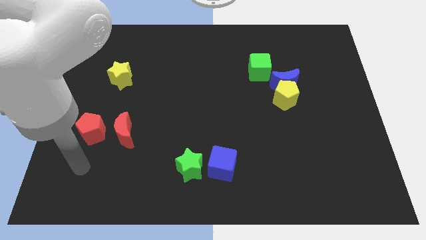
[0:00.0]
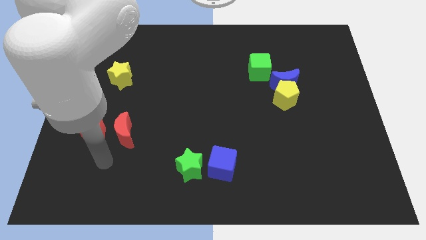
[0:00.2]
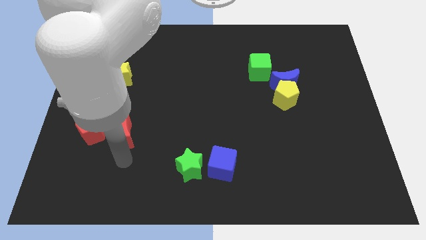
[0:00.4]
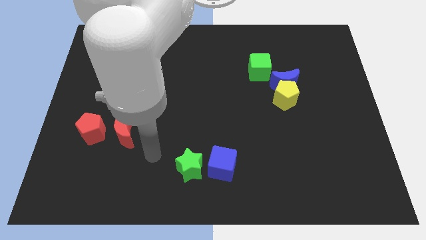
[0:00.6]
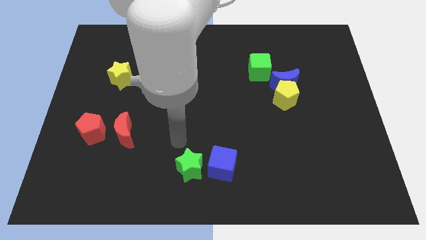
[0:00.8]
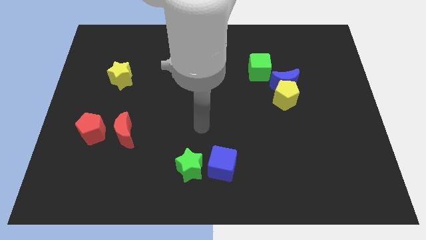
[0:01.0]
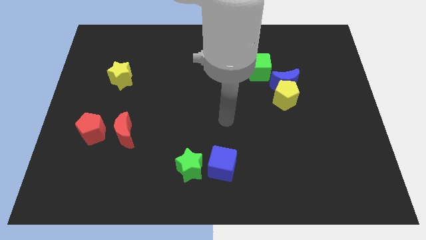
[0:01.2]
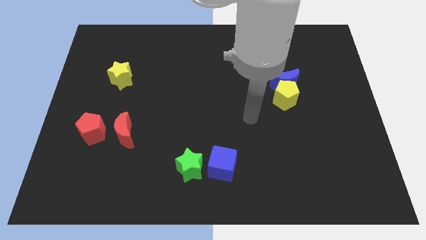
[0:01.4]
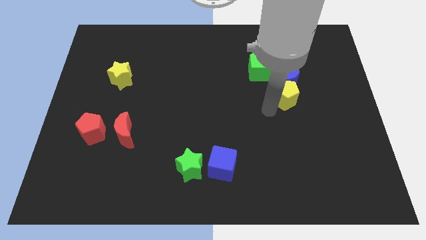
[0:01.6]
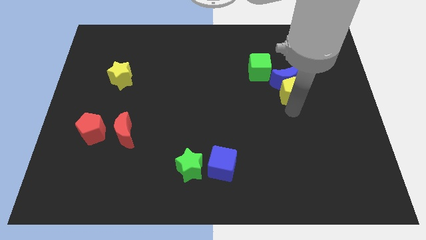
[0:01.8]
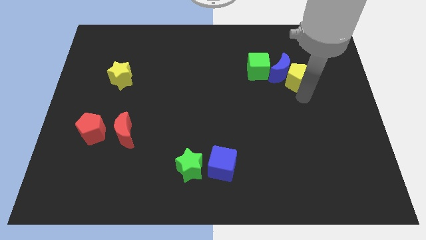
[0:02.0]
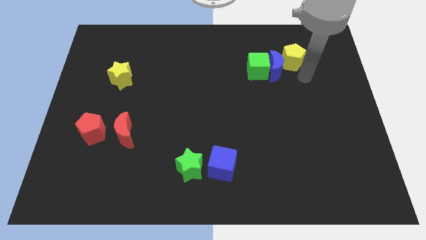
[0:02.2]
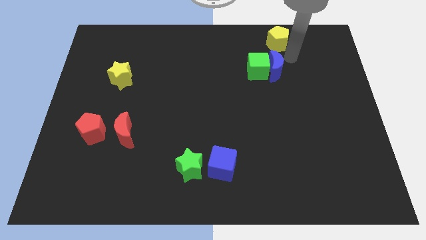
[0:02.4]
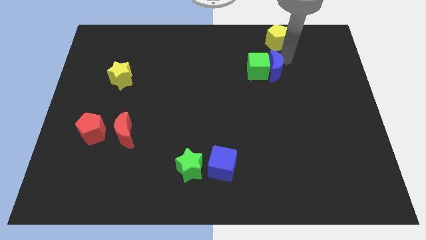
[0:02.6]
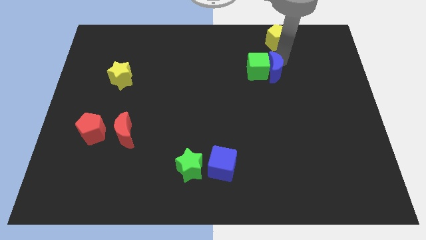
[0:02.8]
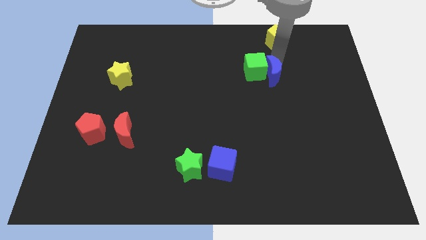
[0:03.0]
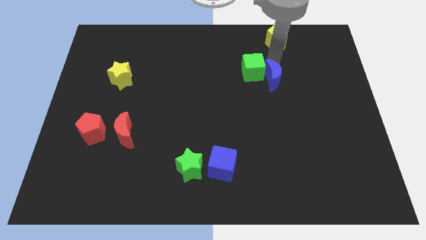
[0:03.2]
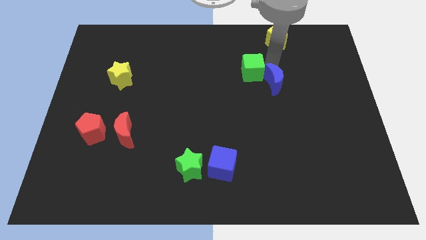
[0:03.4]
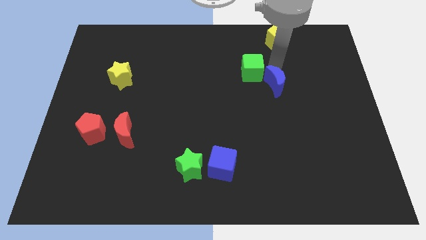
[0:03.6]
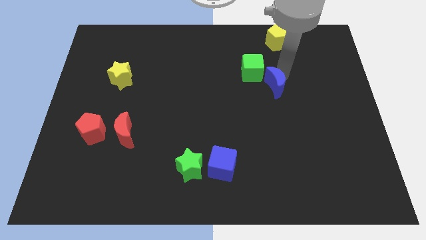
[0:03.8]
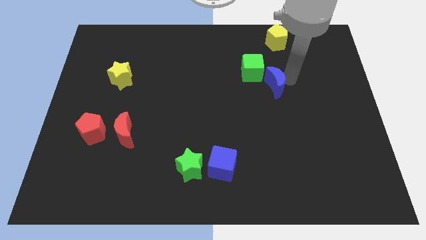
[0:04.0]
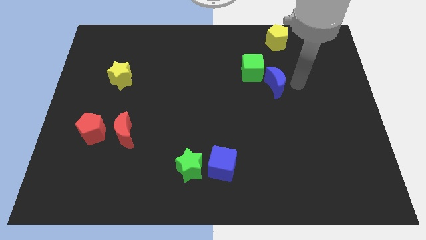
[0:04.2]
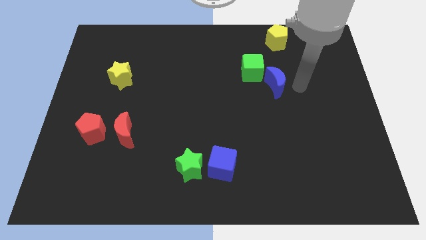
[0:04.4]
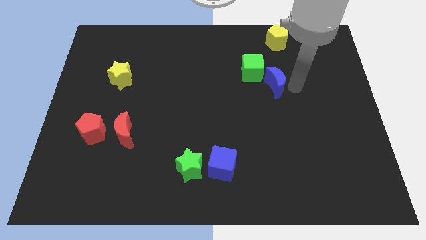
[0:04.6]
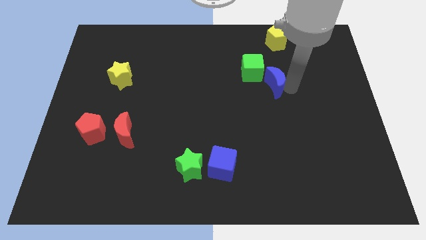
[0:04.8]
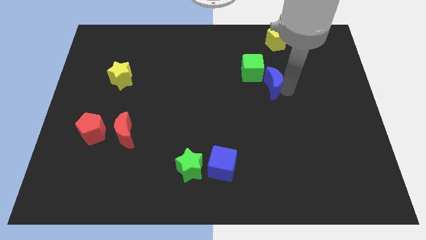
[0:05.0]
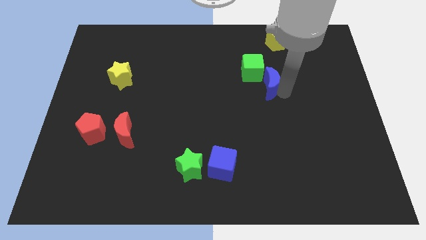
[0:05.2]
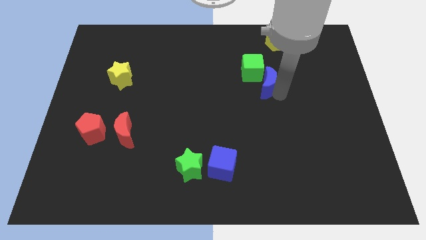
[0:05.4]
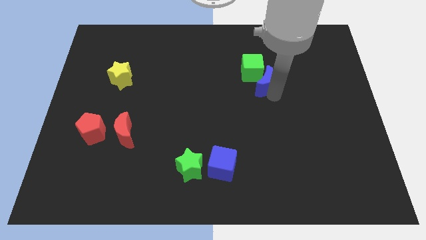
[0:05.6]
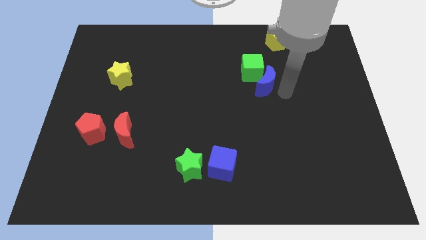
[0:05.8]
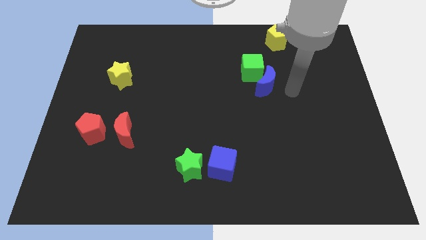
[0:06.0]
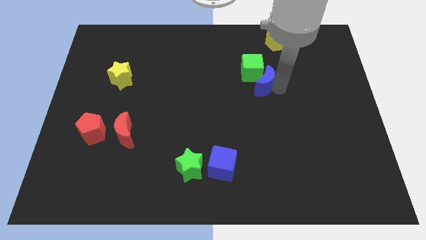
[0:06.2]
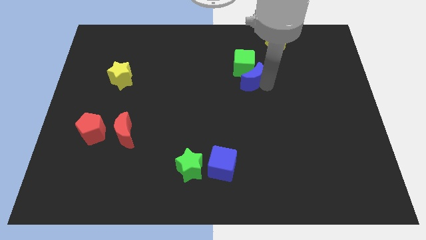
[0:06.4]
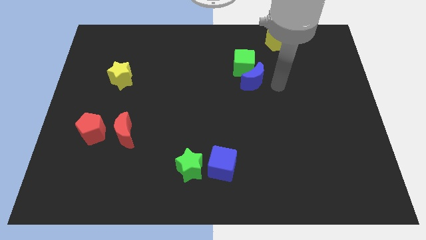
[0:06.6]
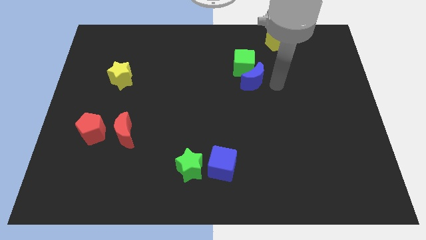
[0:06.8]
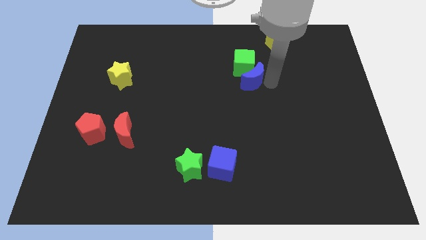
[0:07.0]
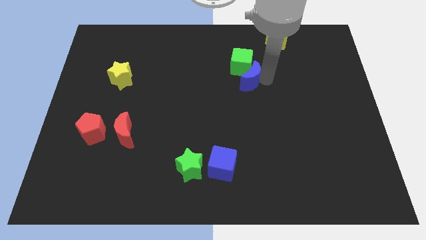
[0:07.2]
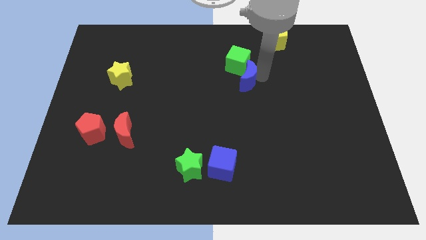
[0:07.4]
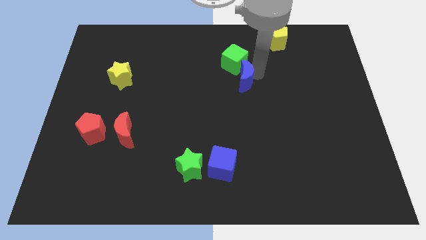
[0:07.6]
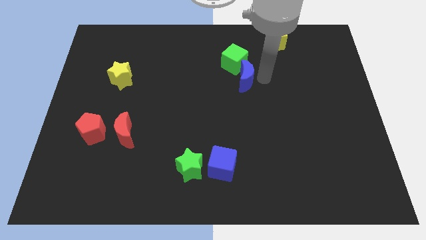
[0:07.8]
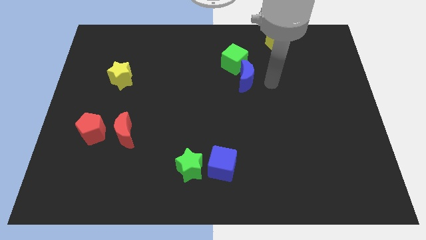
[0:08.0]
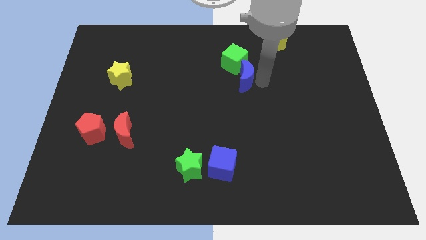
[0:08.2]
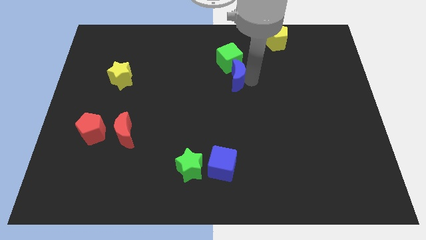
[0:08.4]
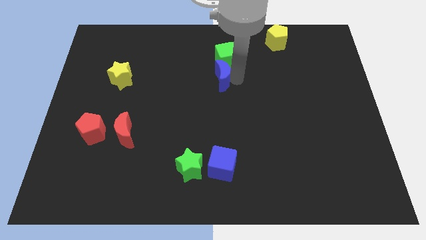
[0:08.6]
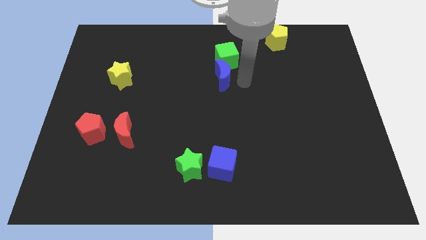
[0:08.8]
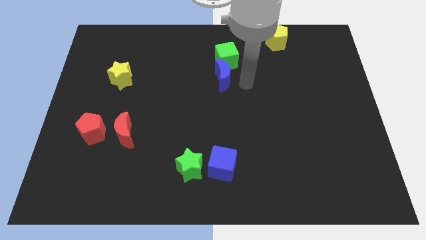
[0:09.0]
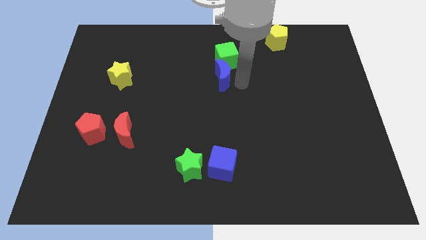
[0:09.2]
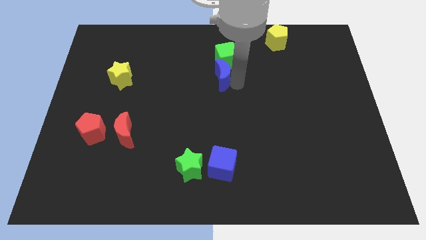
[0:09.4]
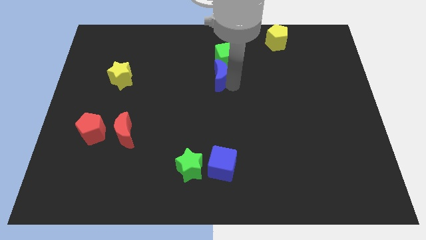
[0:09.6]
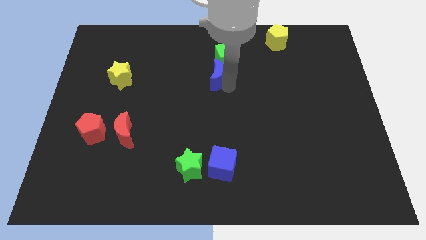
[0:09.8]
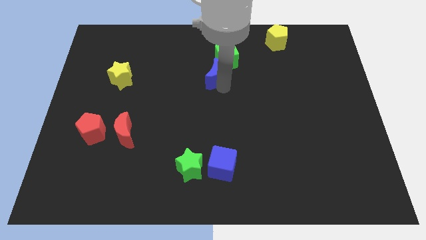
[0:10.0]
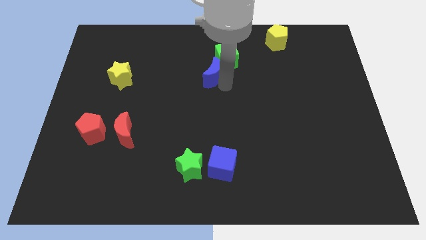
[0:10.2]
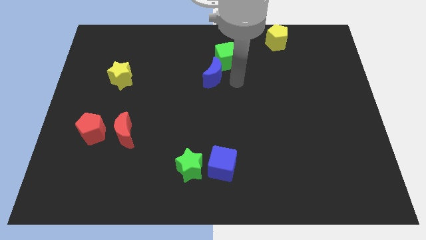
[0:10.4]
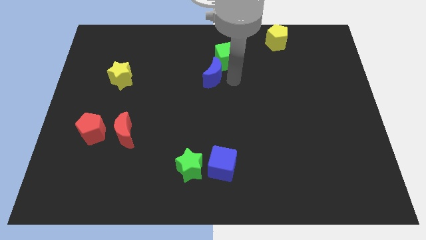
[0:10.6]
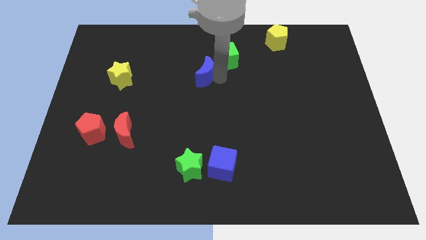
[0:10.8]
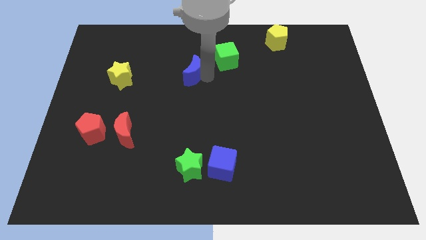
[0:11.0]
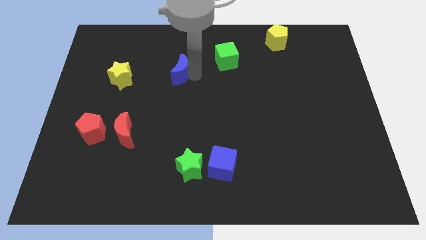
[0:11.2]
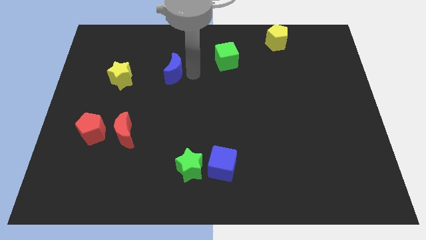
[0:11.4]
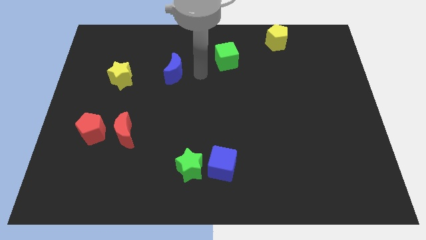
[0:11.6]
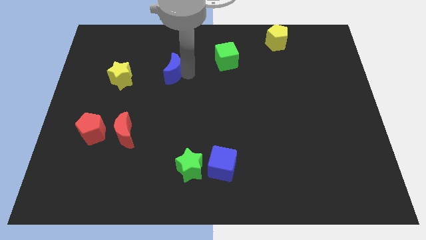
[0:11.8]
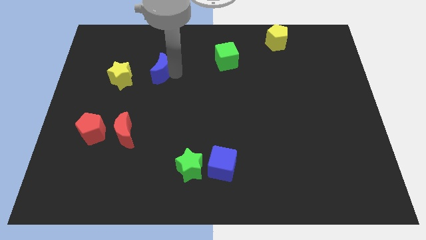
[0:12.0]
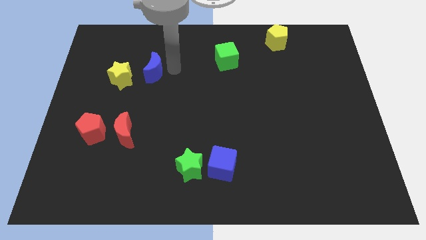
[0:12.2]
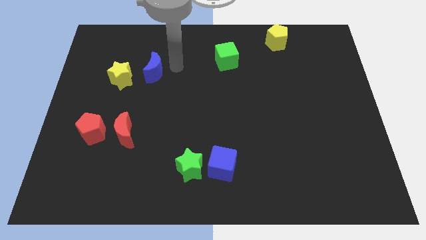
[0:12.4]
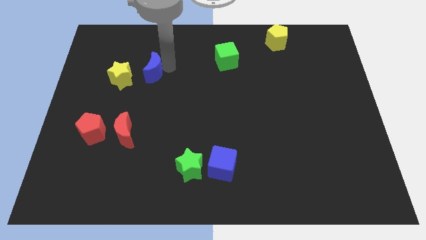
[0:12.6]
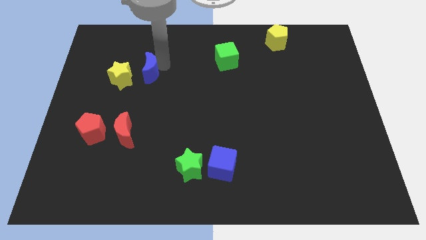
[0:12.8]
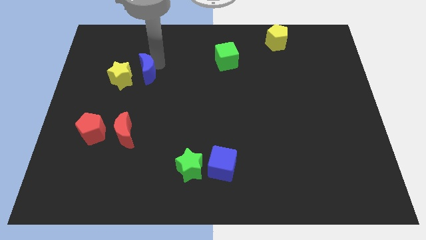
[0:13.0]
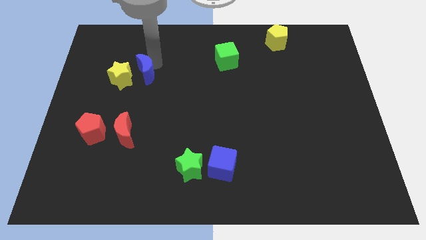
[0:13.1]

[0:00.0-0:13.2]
push the blue moon to the yellow star
